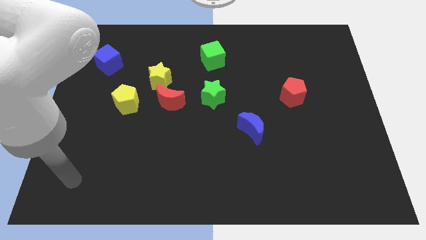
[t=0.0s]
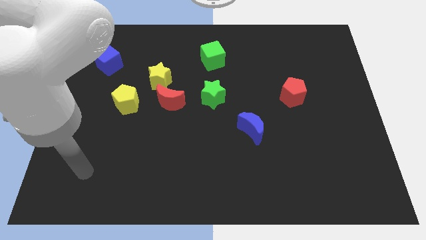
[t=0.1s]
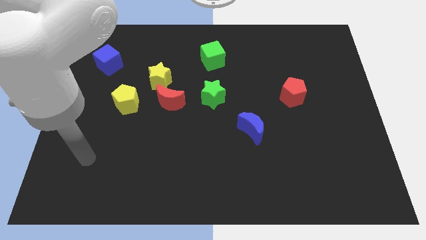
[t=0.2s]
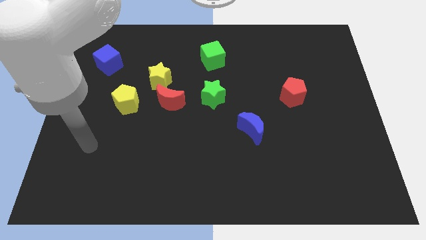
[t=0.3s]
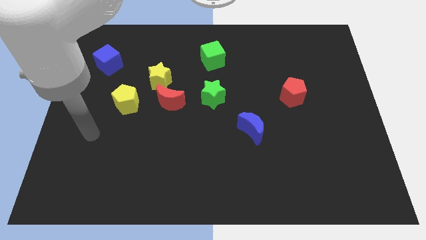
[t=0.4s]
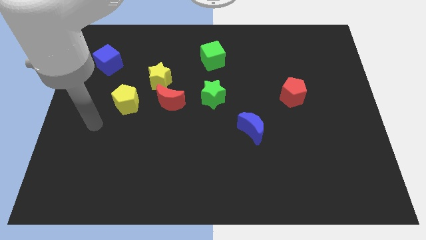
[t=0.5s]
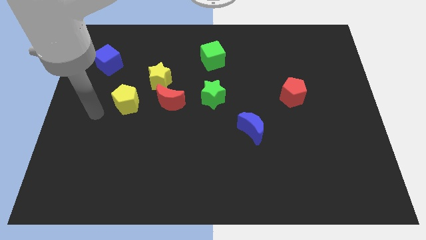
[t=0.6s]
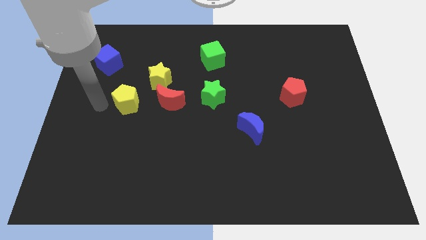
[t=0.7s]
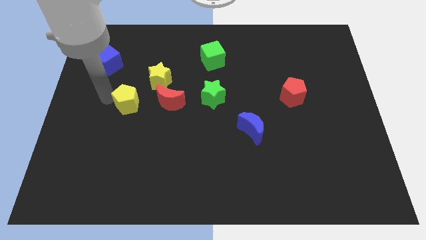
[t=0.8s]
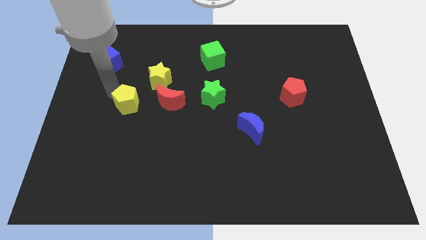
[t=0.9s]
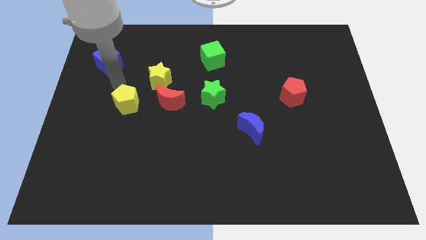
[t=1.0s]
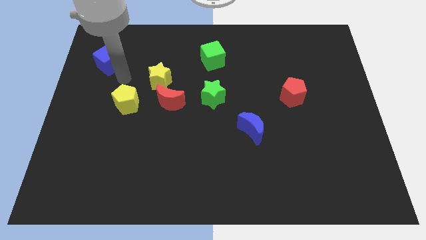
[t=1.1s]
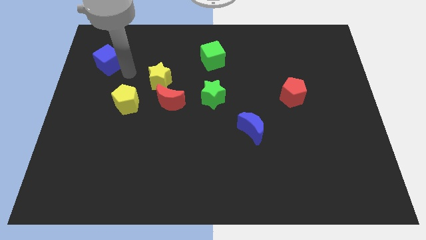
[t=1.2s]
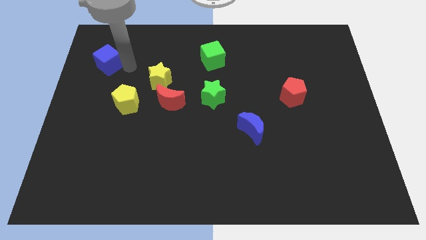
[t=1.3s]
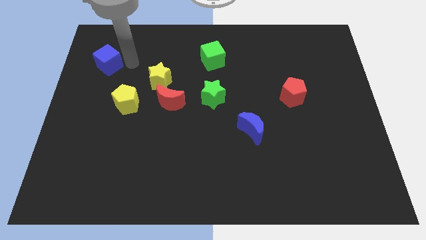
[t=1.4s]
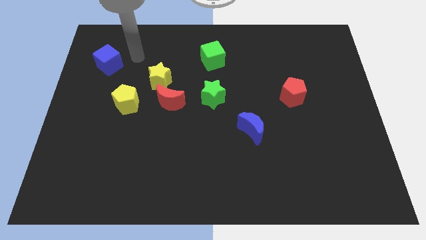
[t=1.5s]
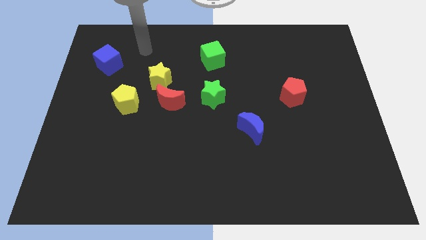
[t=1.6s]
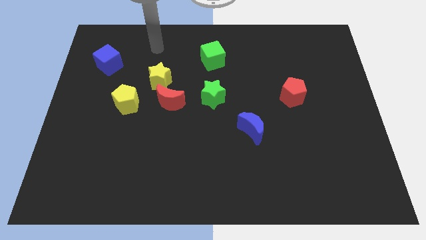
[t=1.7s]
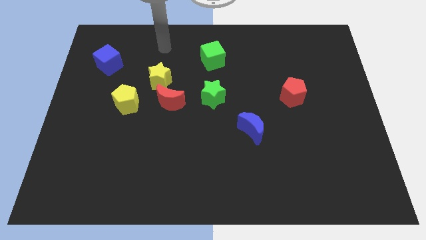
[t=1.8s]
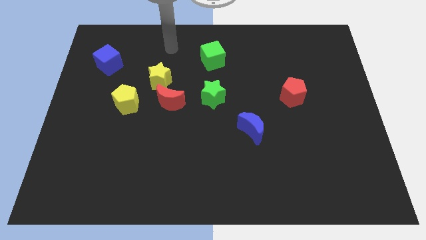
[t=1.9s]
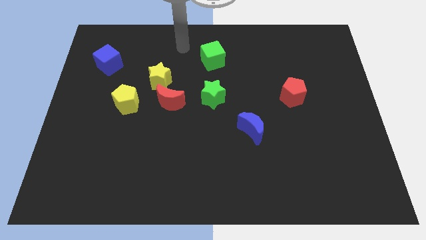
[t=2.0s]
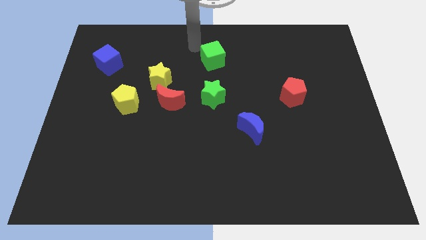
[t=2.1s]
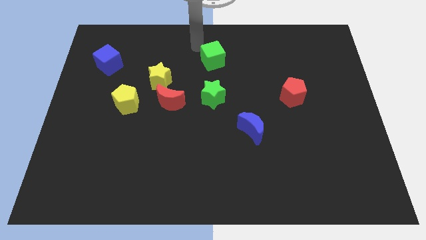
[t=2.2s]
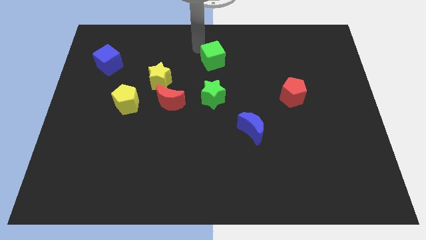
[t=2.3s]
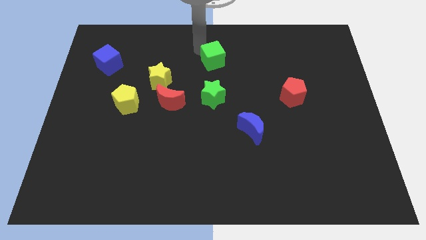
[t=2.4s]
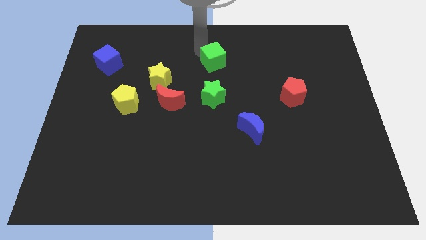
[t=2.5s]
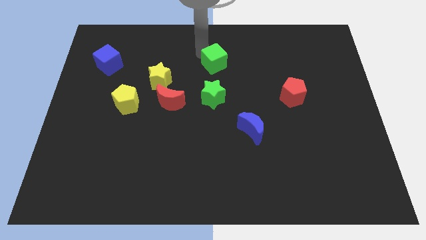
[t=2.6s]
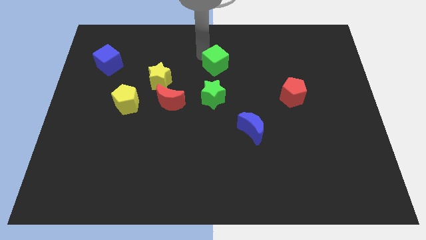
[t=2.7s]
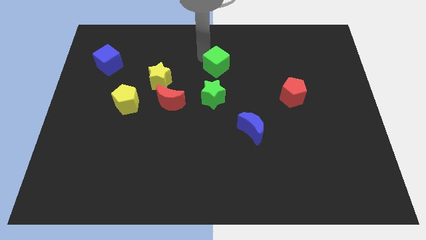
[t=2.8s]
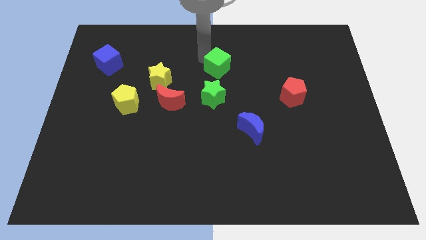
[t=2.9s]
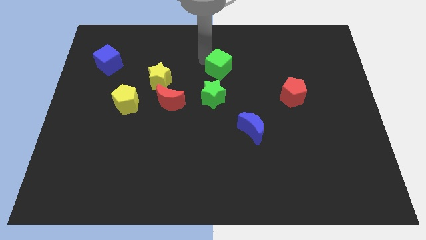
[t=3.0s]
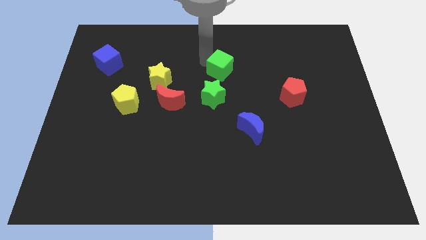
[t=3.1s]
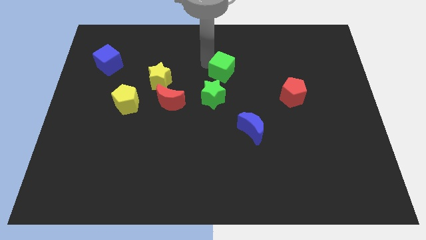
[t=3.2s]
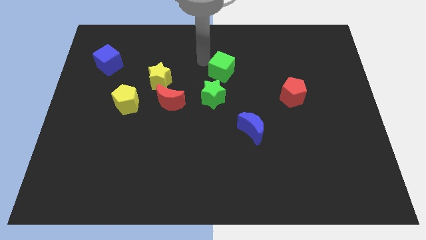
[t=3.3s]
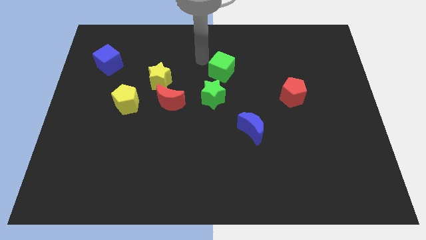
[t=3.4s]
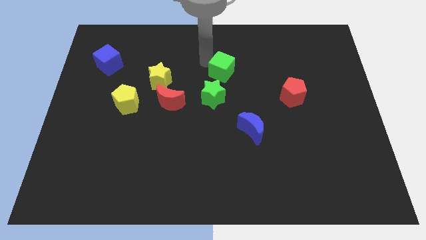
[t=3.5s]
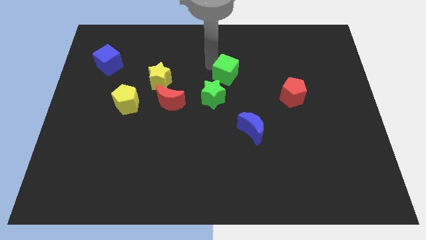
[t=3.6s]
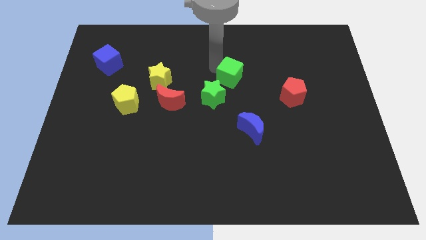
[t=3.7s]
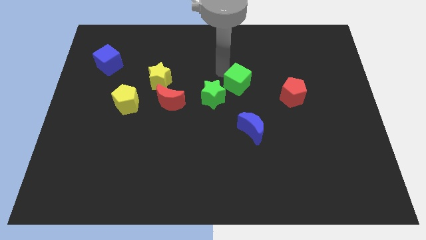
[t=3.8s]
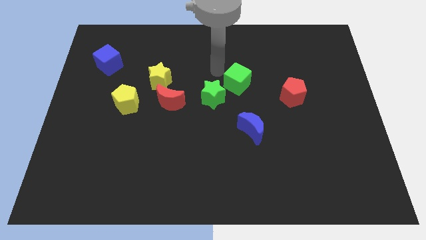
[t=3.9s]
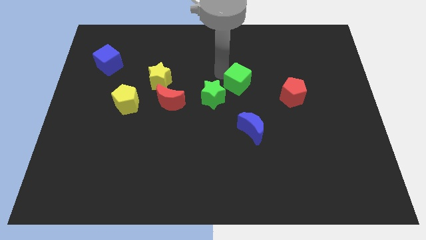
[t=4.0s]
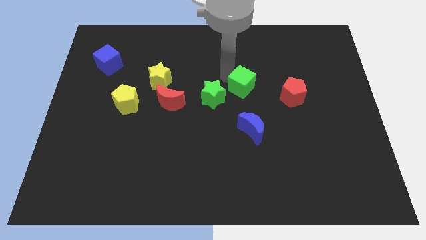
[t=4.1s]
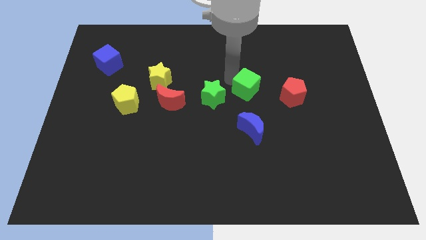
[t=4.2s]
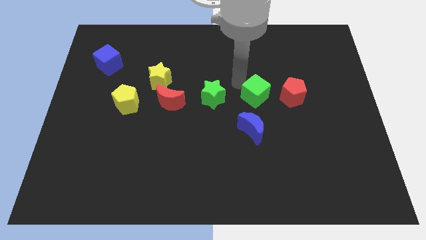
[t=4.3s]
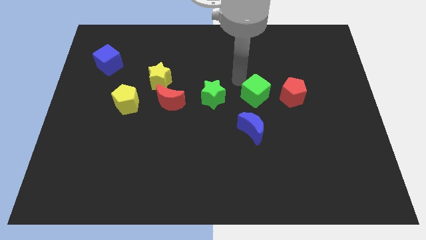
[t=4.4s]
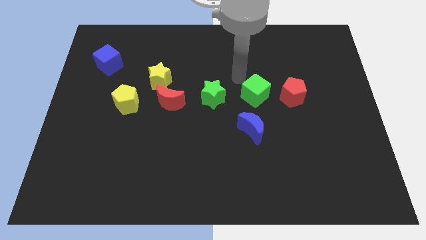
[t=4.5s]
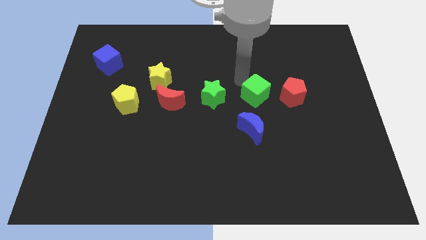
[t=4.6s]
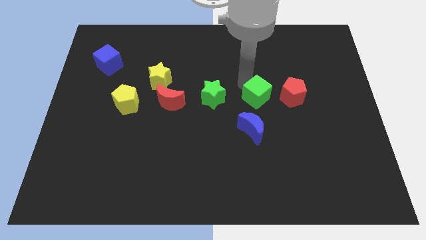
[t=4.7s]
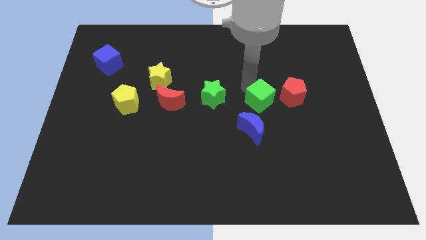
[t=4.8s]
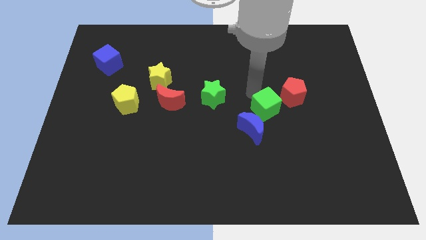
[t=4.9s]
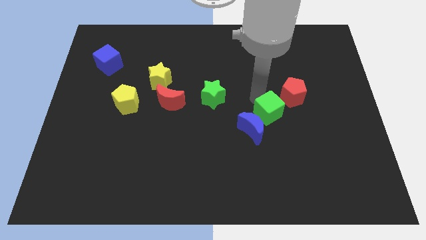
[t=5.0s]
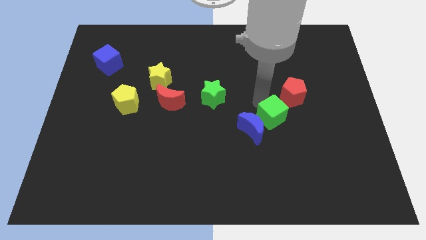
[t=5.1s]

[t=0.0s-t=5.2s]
put the green cube right of the blue moon

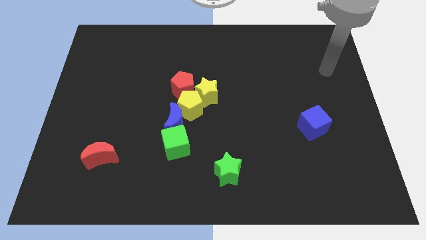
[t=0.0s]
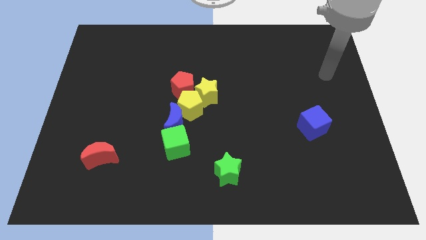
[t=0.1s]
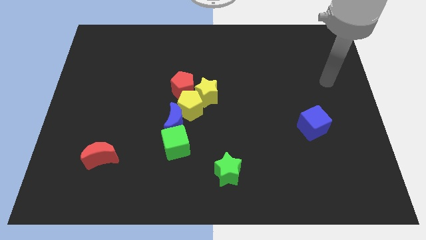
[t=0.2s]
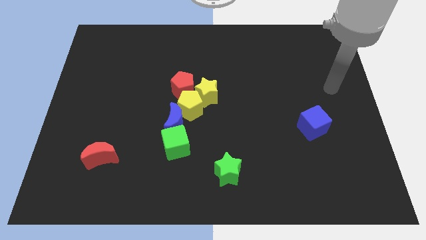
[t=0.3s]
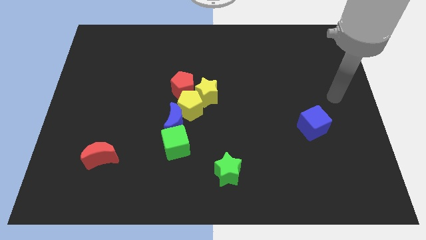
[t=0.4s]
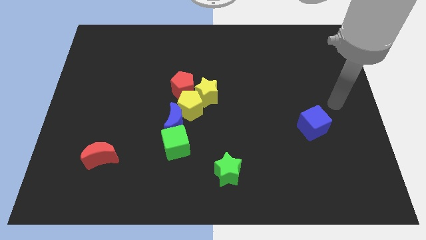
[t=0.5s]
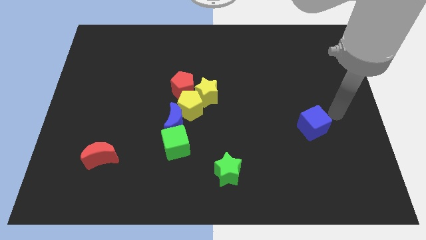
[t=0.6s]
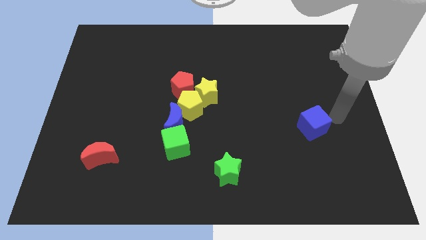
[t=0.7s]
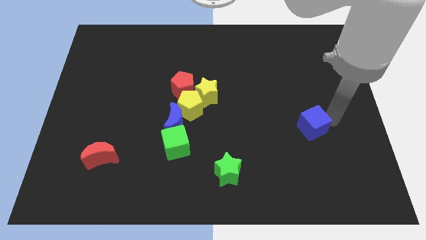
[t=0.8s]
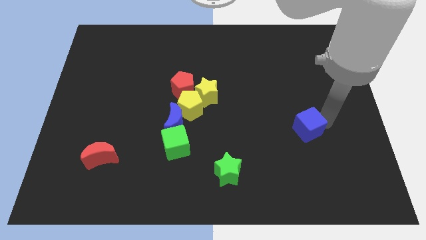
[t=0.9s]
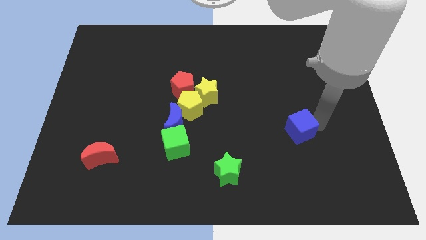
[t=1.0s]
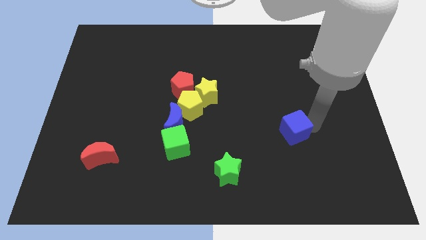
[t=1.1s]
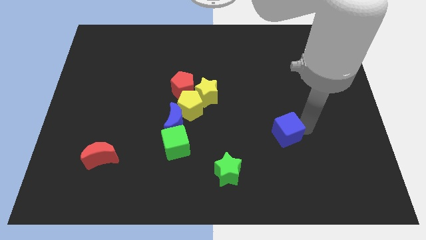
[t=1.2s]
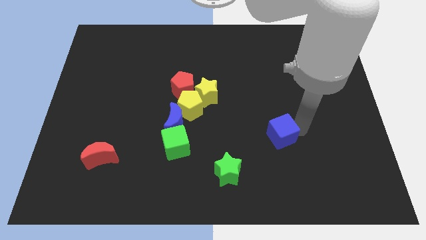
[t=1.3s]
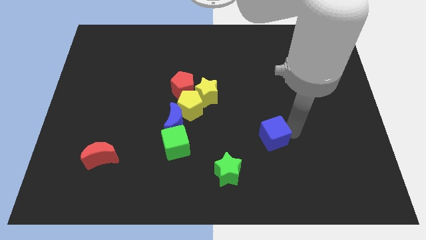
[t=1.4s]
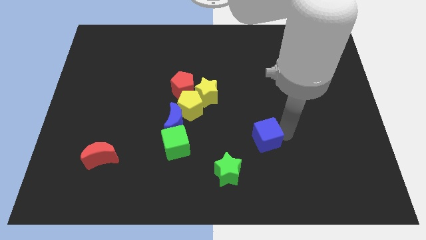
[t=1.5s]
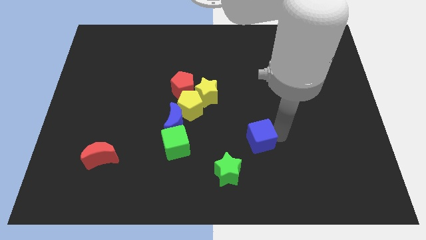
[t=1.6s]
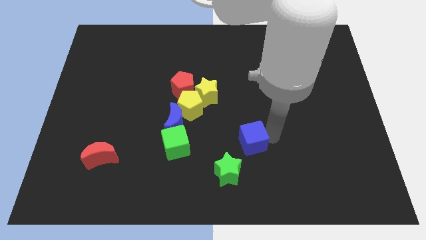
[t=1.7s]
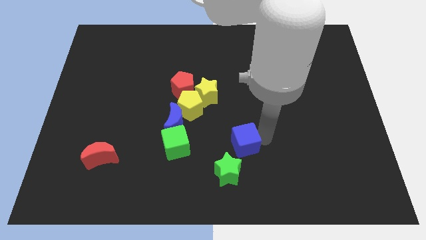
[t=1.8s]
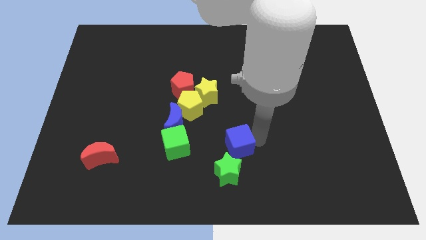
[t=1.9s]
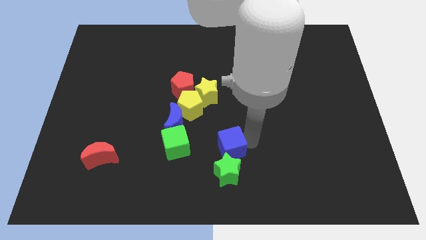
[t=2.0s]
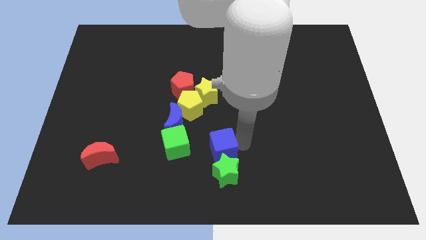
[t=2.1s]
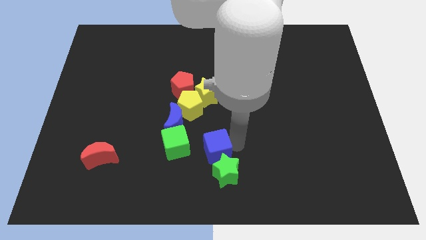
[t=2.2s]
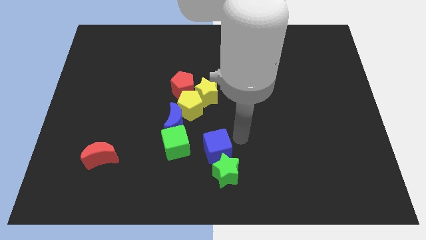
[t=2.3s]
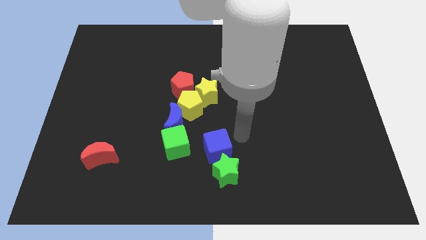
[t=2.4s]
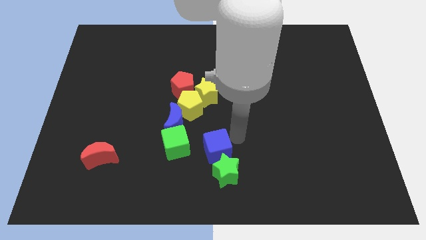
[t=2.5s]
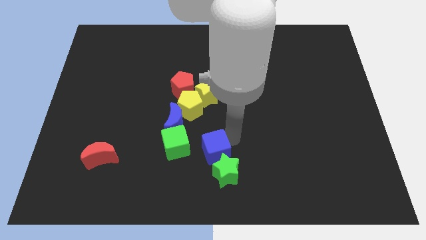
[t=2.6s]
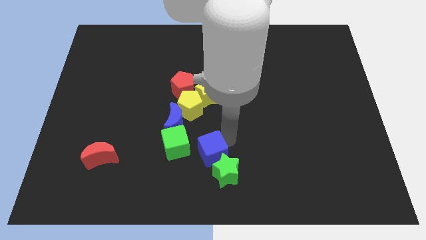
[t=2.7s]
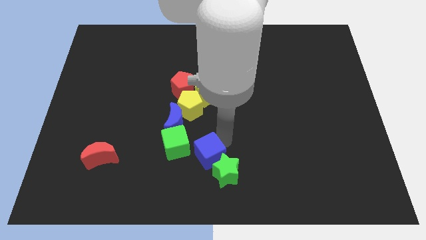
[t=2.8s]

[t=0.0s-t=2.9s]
push the blue cube left of the green star
